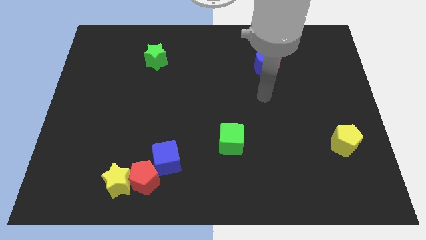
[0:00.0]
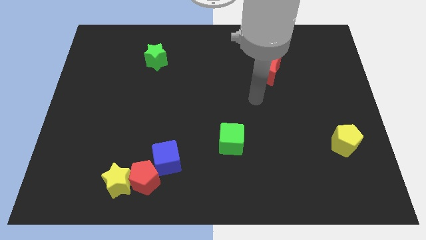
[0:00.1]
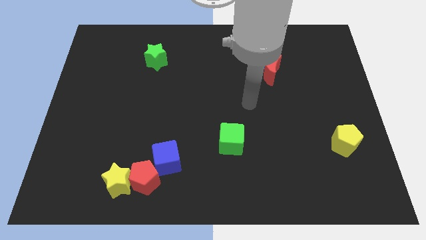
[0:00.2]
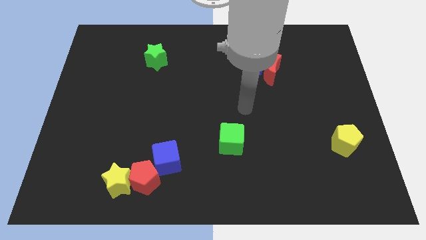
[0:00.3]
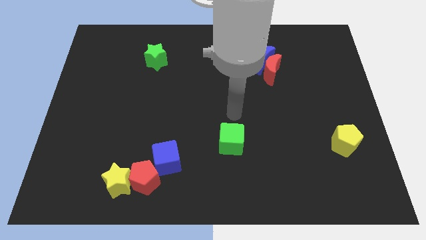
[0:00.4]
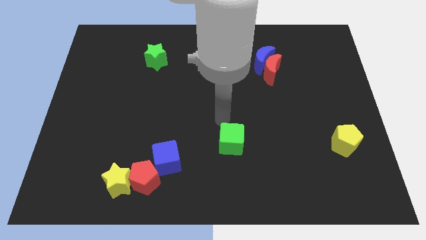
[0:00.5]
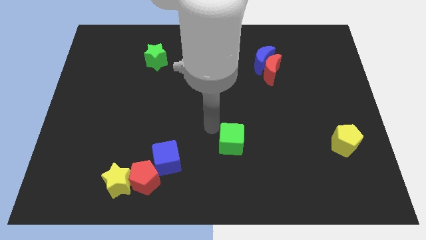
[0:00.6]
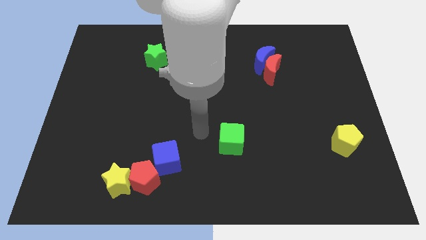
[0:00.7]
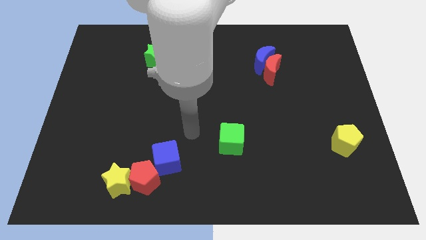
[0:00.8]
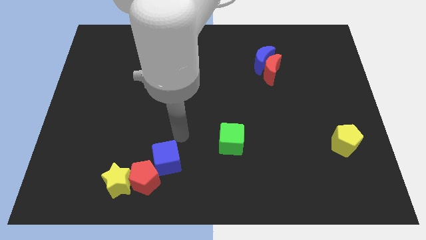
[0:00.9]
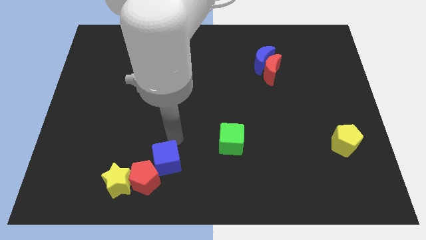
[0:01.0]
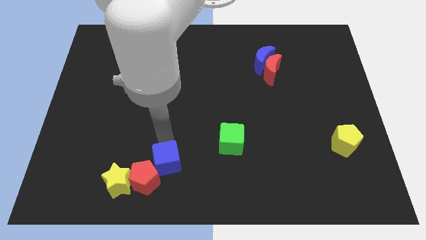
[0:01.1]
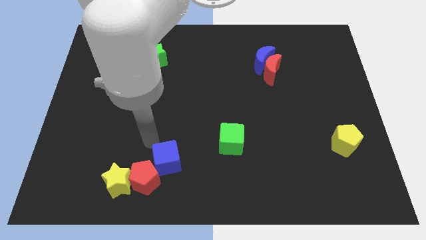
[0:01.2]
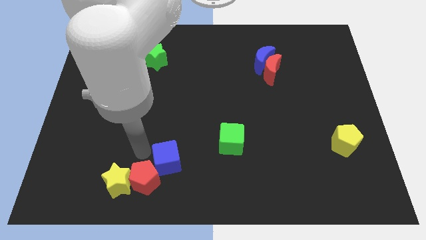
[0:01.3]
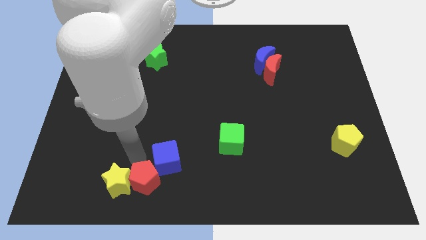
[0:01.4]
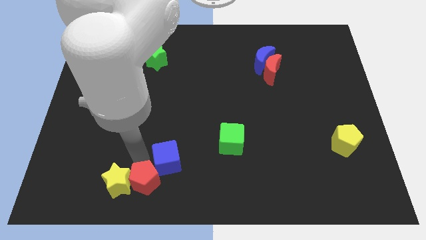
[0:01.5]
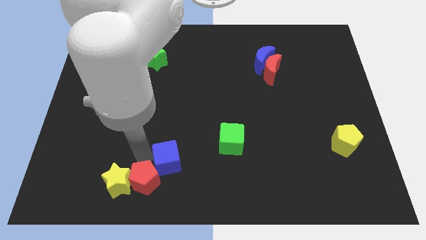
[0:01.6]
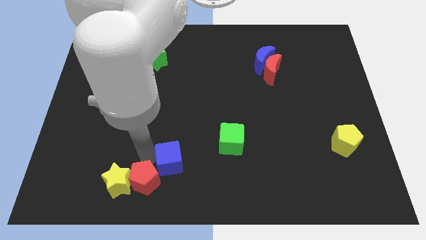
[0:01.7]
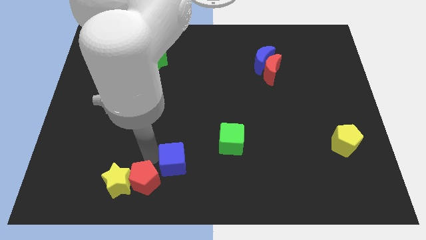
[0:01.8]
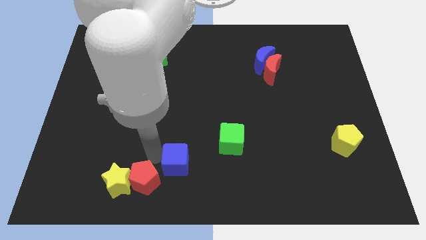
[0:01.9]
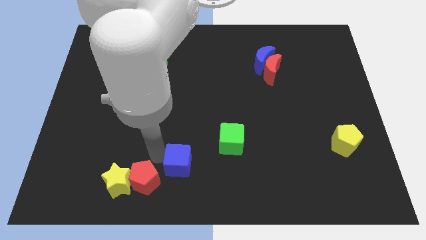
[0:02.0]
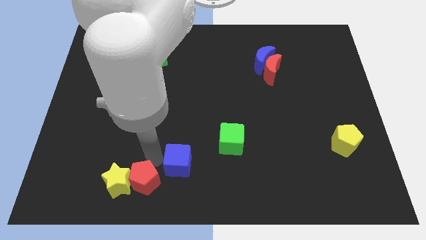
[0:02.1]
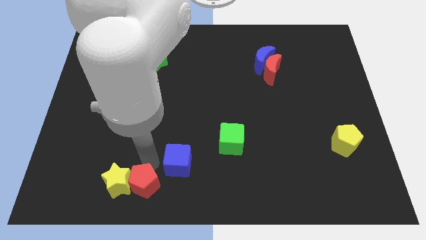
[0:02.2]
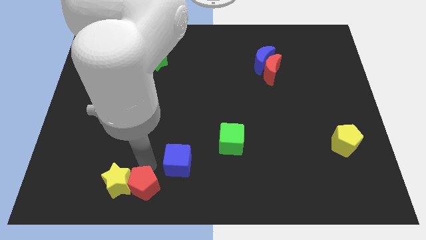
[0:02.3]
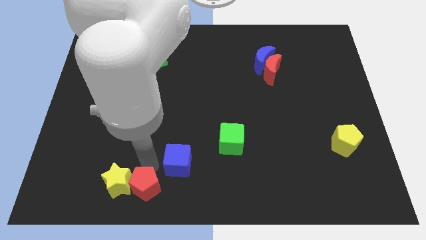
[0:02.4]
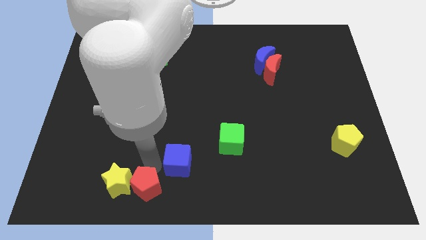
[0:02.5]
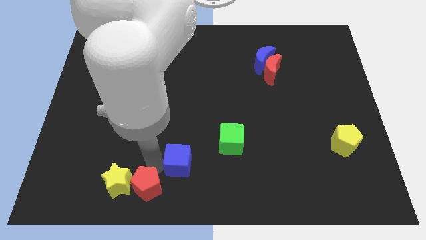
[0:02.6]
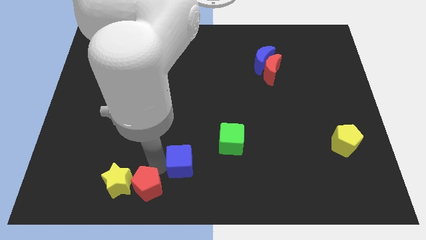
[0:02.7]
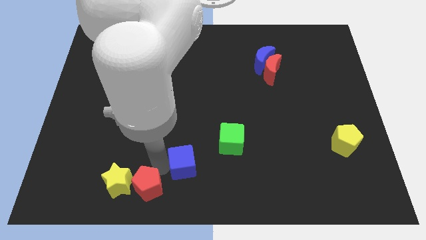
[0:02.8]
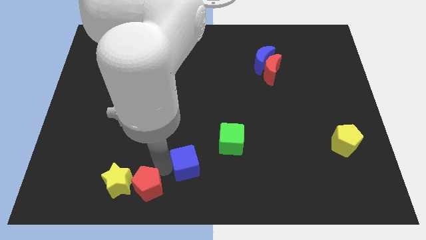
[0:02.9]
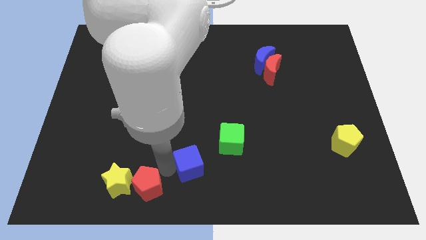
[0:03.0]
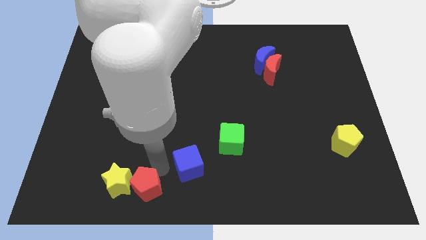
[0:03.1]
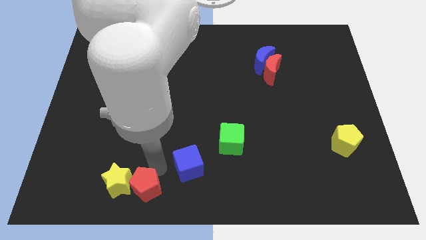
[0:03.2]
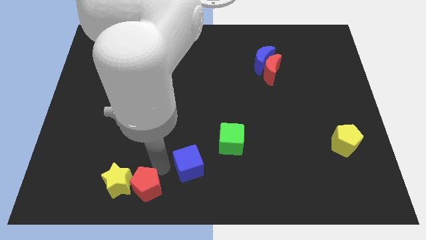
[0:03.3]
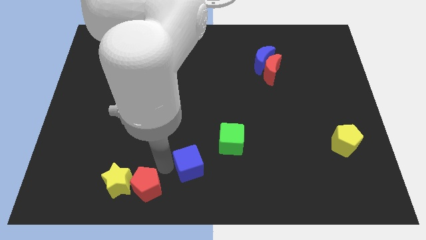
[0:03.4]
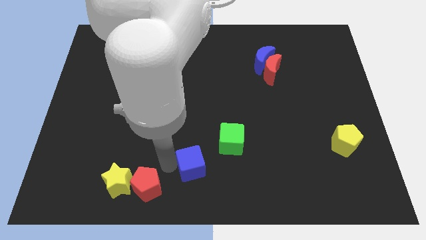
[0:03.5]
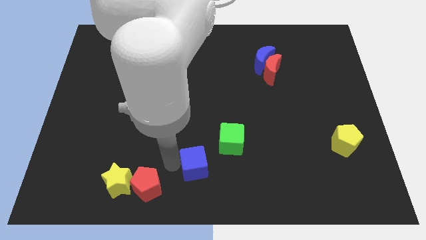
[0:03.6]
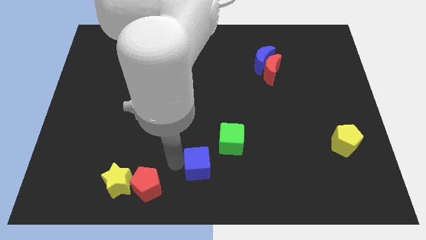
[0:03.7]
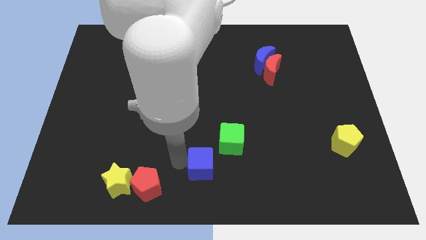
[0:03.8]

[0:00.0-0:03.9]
move the blue cube right a bit

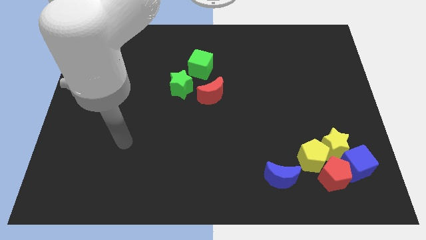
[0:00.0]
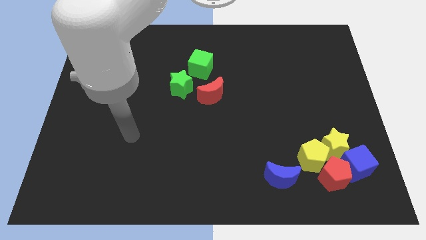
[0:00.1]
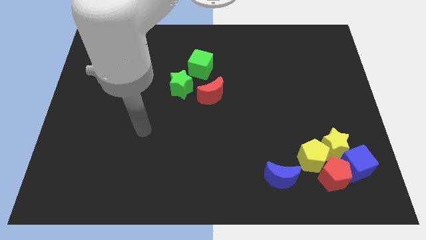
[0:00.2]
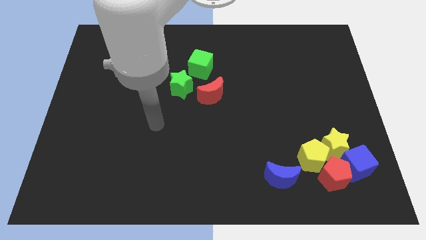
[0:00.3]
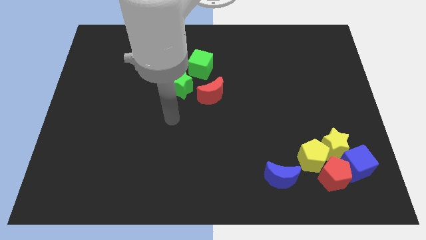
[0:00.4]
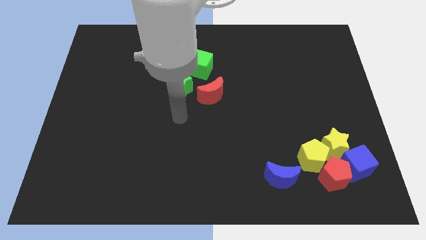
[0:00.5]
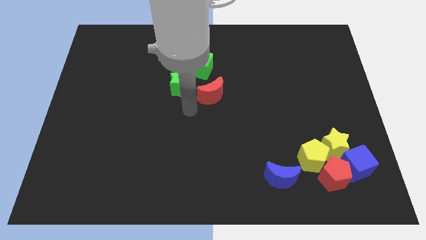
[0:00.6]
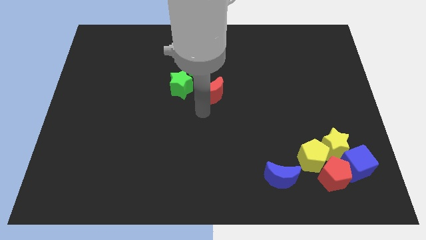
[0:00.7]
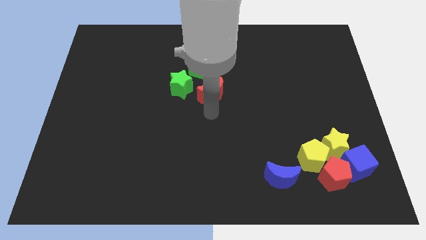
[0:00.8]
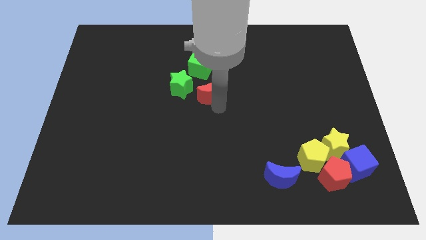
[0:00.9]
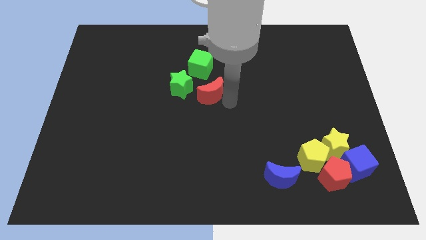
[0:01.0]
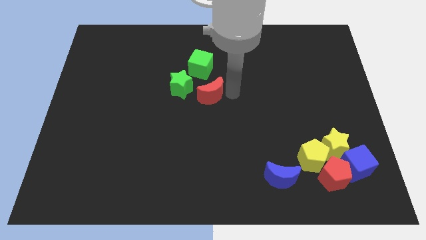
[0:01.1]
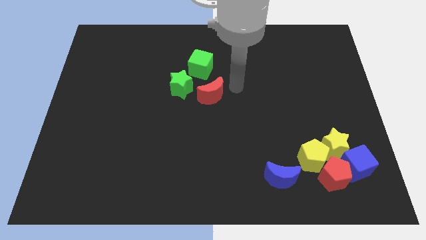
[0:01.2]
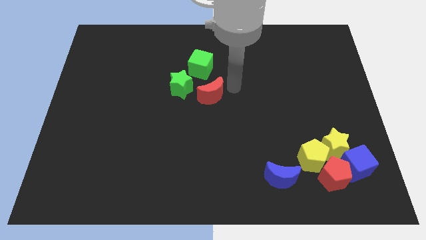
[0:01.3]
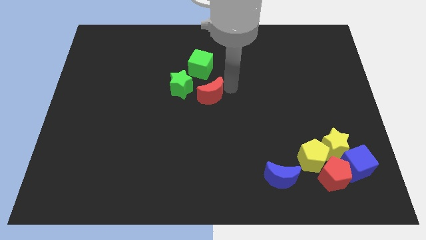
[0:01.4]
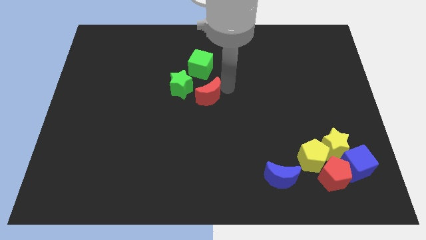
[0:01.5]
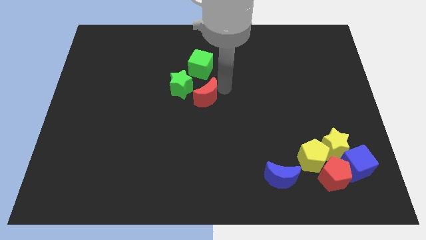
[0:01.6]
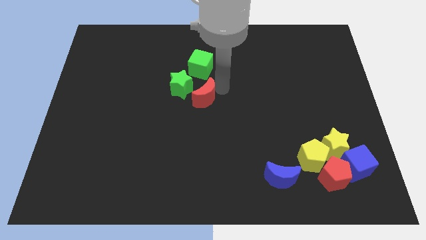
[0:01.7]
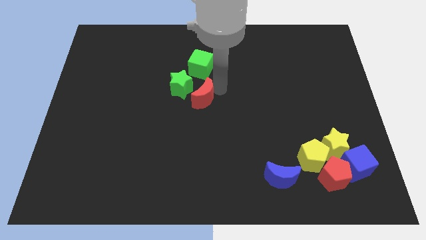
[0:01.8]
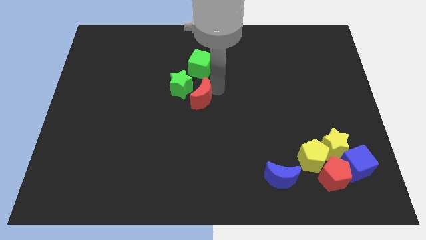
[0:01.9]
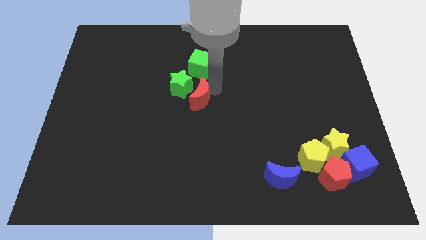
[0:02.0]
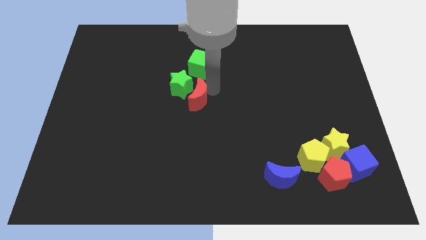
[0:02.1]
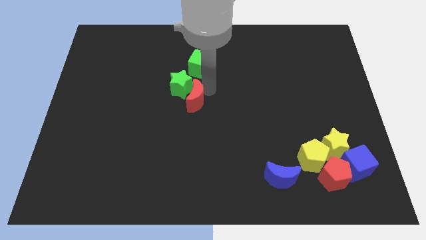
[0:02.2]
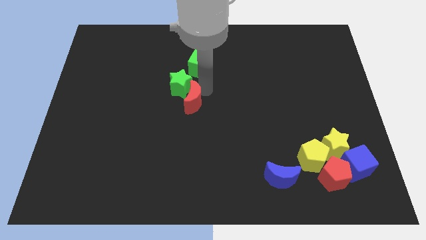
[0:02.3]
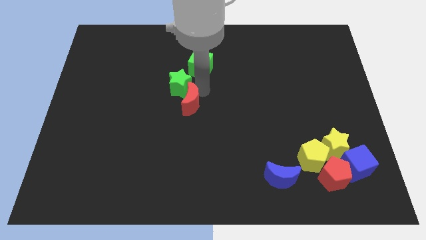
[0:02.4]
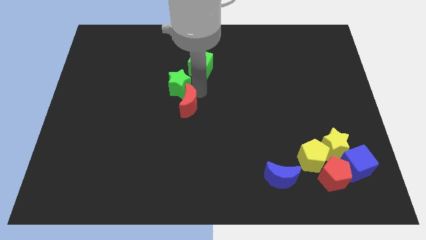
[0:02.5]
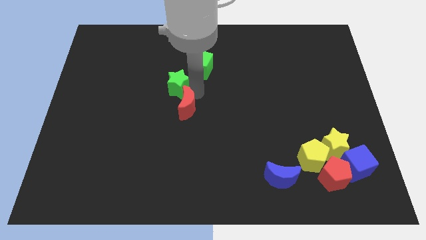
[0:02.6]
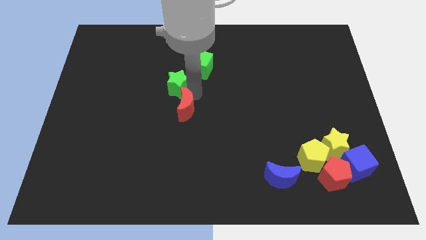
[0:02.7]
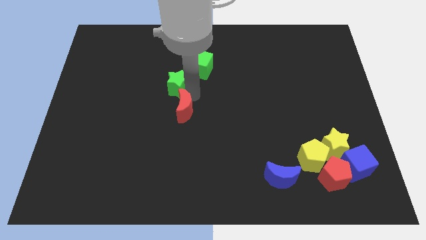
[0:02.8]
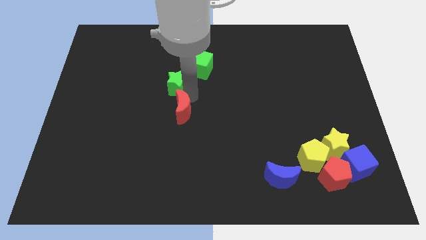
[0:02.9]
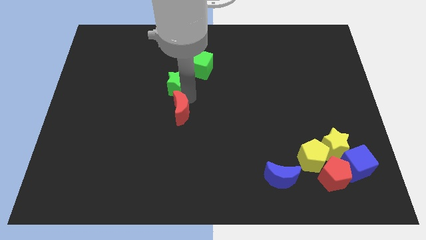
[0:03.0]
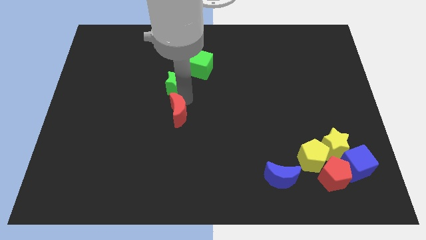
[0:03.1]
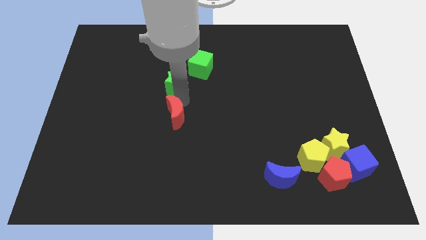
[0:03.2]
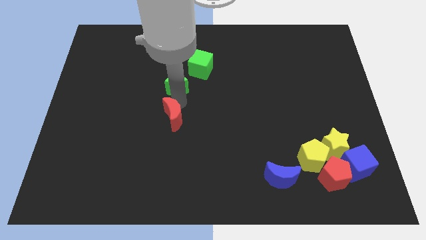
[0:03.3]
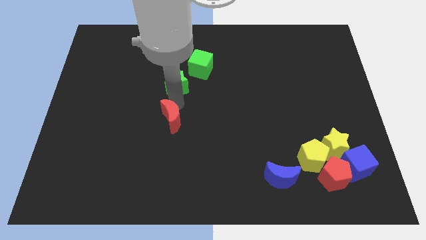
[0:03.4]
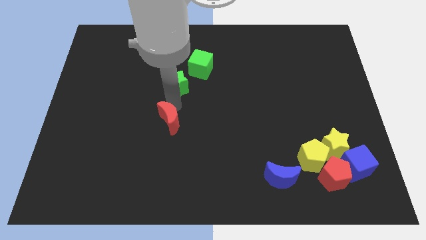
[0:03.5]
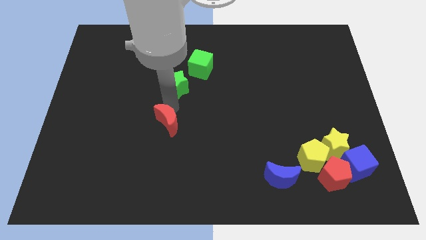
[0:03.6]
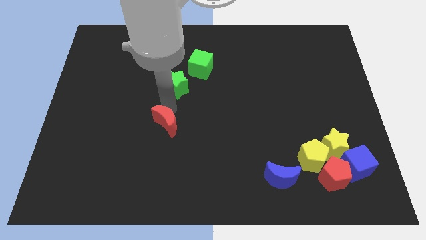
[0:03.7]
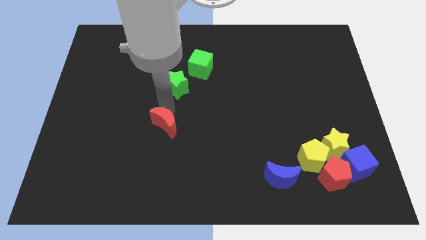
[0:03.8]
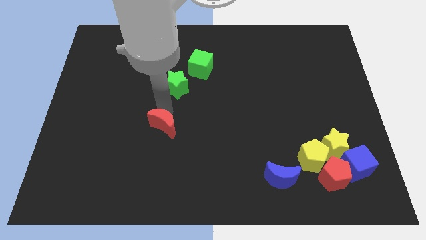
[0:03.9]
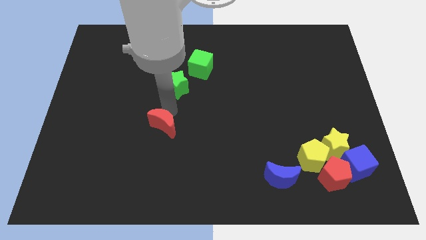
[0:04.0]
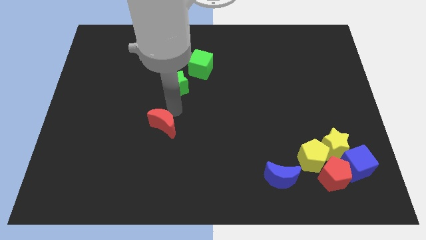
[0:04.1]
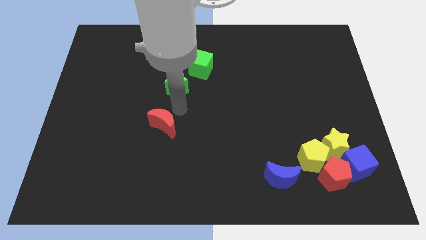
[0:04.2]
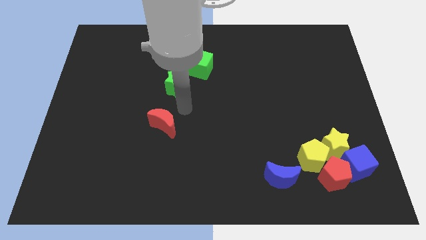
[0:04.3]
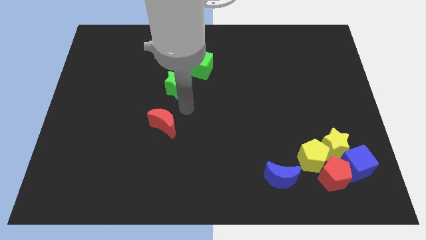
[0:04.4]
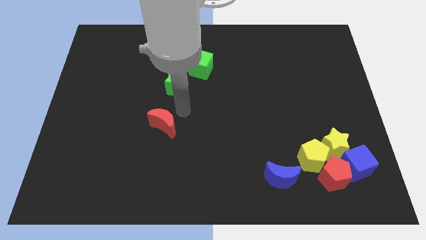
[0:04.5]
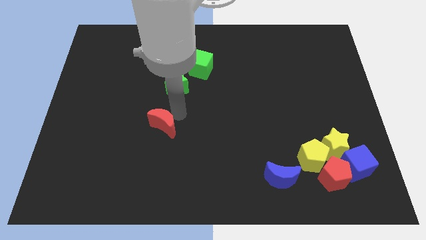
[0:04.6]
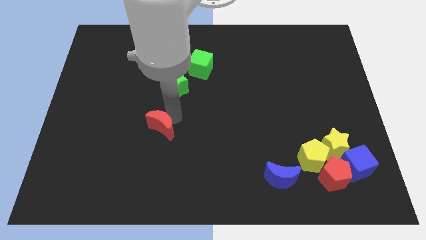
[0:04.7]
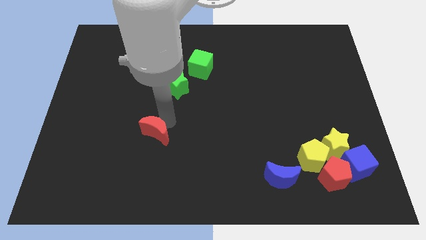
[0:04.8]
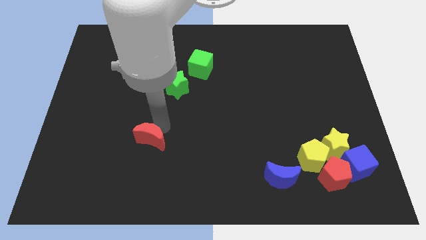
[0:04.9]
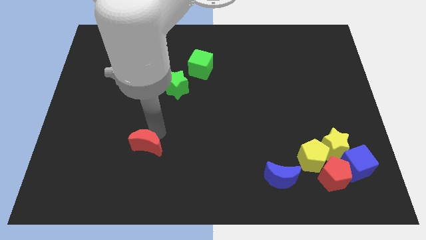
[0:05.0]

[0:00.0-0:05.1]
move the red moon down and to the left
